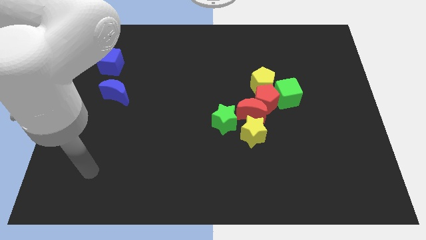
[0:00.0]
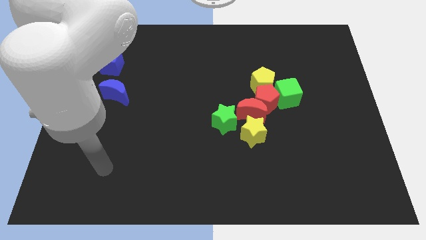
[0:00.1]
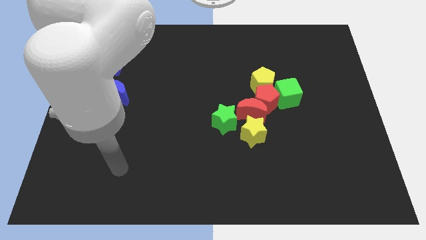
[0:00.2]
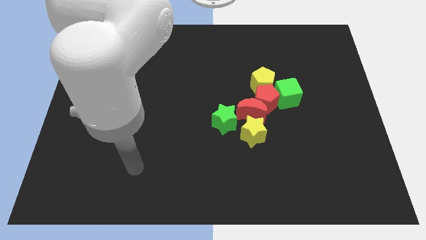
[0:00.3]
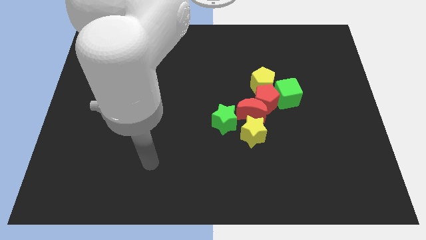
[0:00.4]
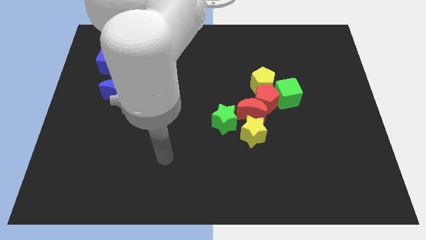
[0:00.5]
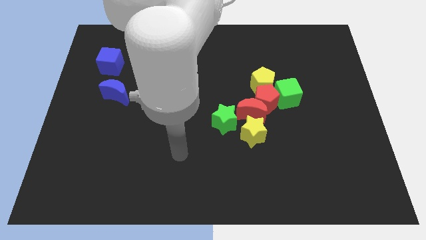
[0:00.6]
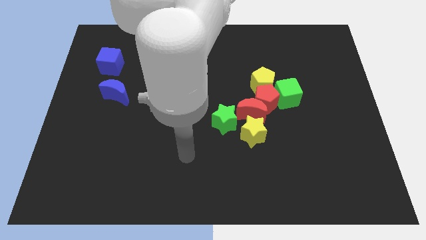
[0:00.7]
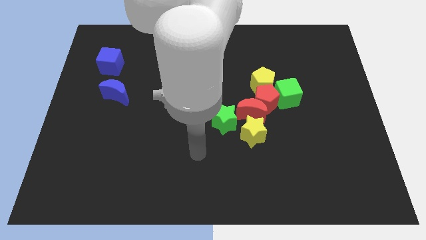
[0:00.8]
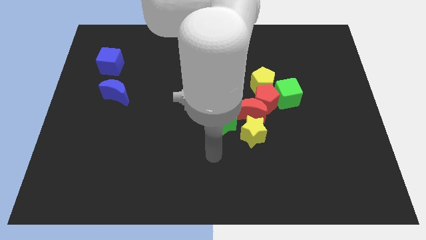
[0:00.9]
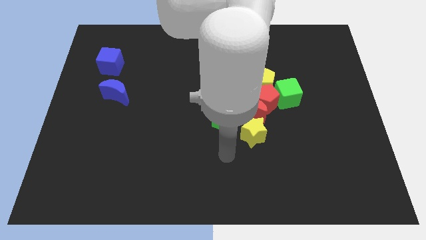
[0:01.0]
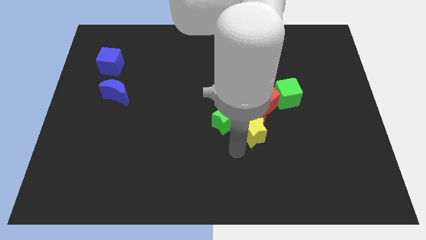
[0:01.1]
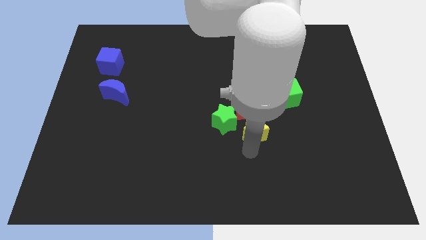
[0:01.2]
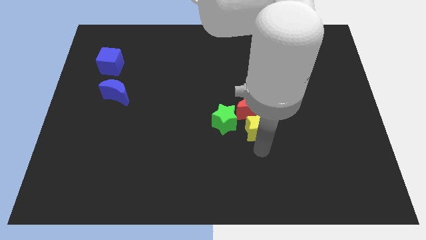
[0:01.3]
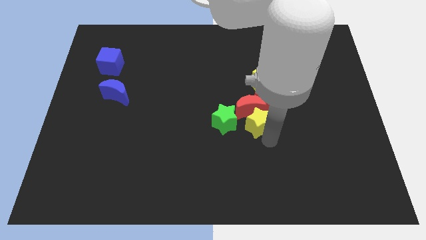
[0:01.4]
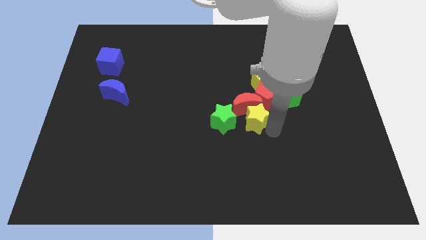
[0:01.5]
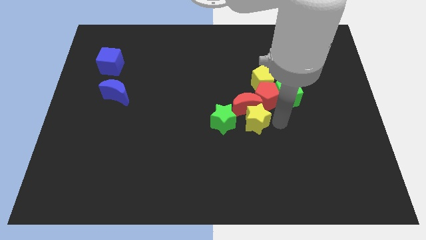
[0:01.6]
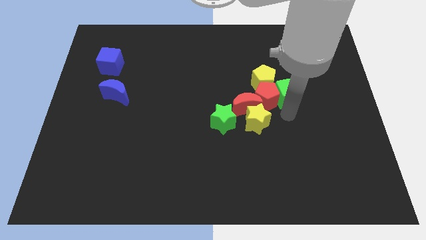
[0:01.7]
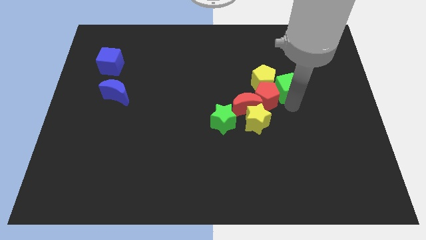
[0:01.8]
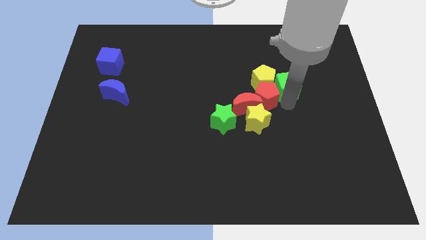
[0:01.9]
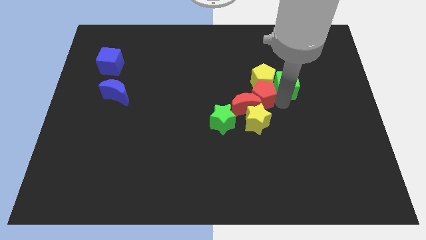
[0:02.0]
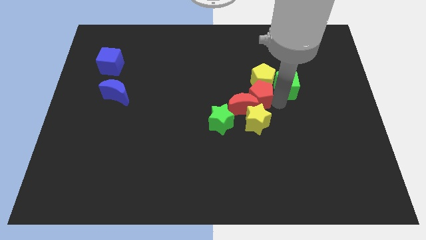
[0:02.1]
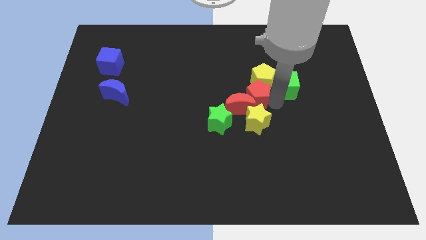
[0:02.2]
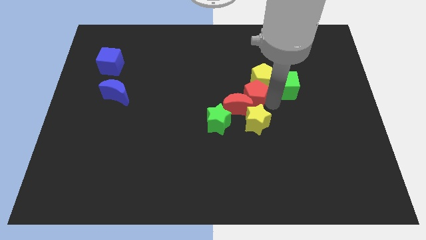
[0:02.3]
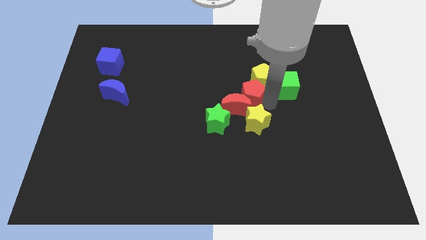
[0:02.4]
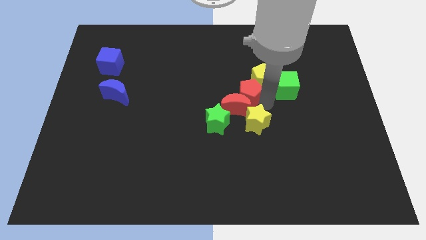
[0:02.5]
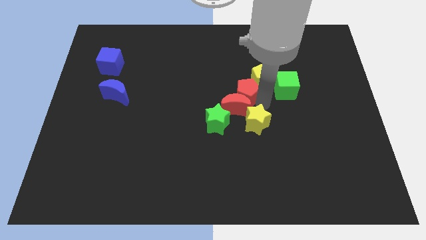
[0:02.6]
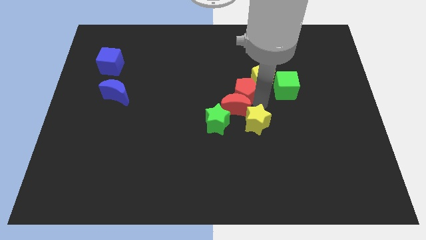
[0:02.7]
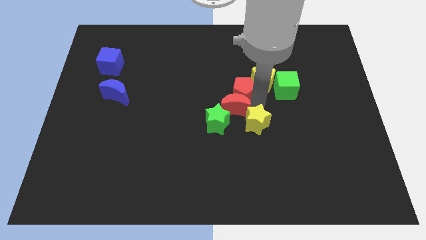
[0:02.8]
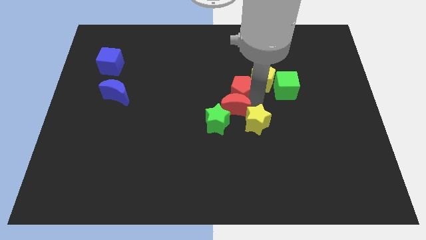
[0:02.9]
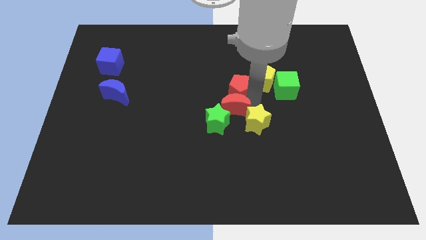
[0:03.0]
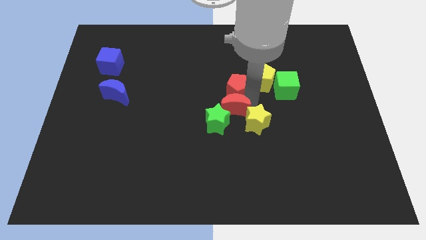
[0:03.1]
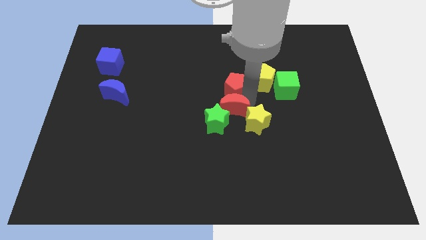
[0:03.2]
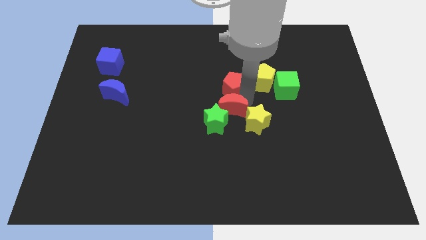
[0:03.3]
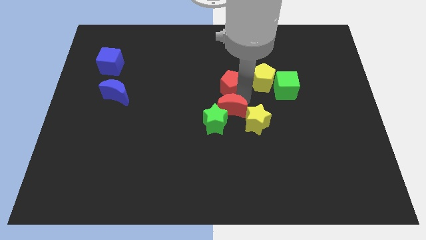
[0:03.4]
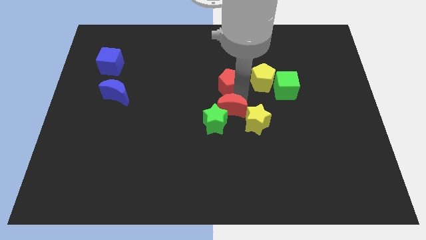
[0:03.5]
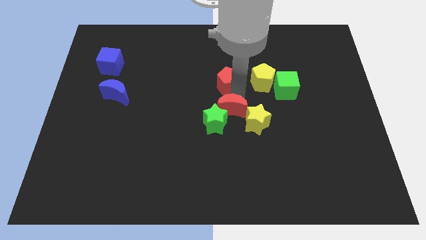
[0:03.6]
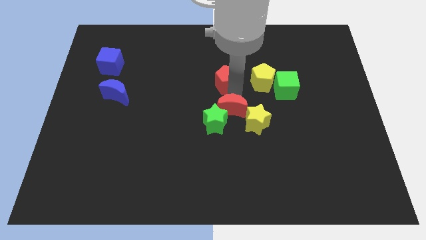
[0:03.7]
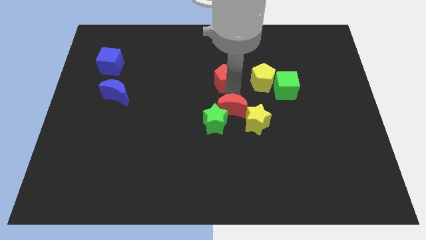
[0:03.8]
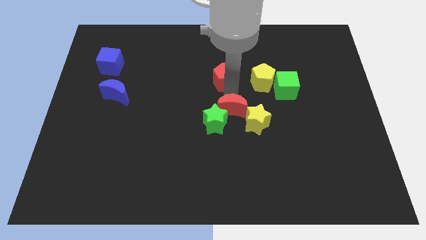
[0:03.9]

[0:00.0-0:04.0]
move the red pentagon away from the group

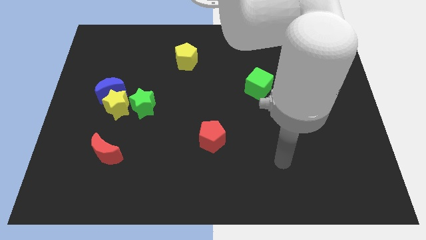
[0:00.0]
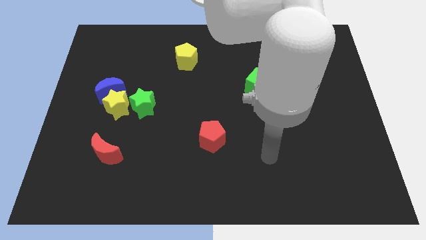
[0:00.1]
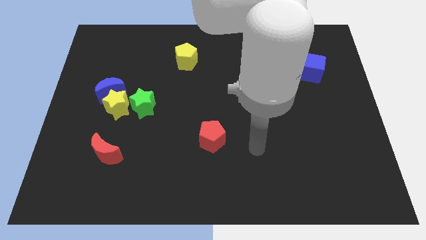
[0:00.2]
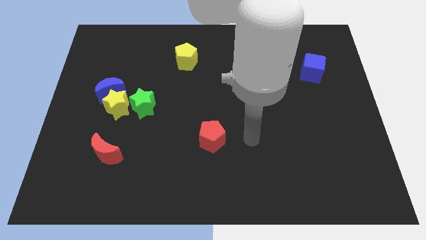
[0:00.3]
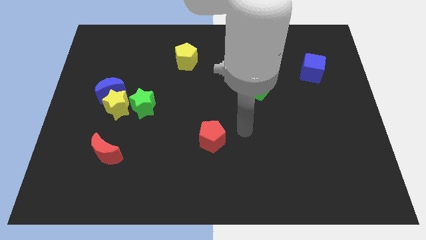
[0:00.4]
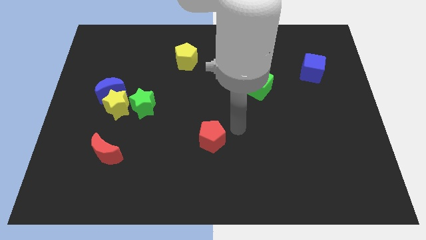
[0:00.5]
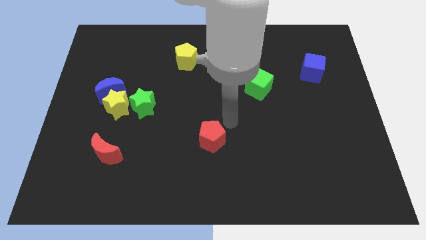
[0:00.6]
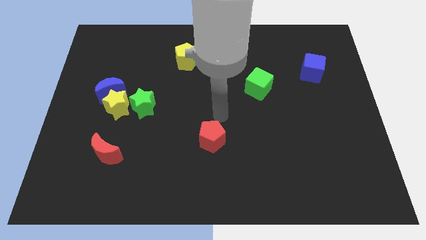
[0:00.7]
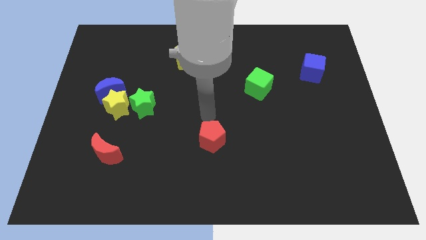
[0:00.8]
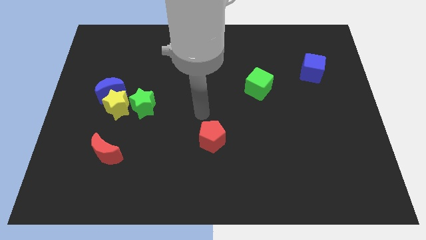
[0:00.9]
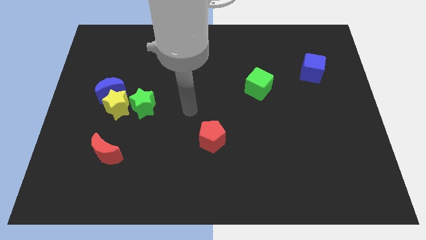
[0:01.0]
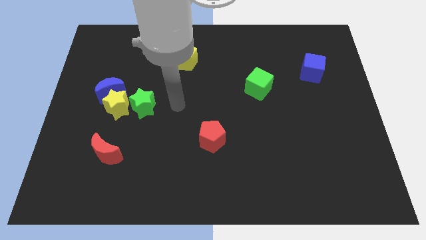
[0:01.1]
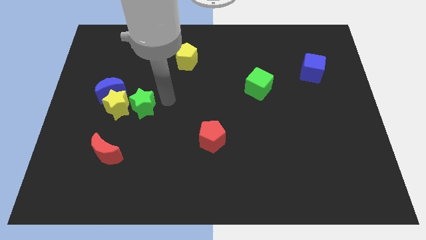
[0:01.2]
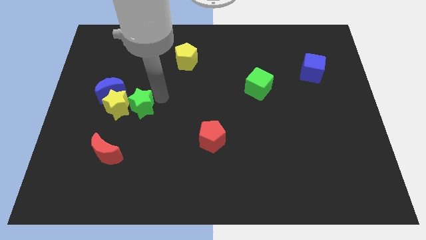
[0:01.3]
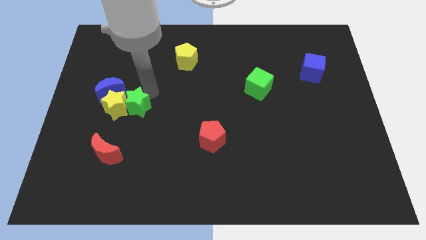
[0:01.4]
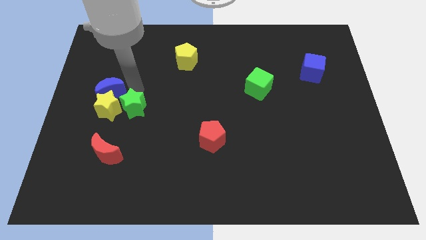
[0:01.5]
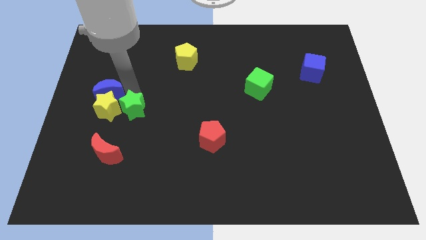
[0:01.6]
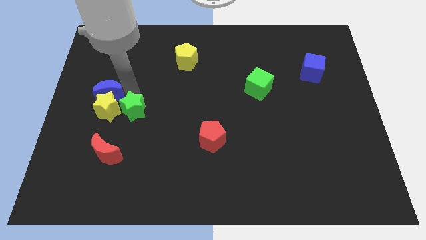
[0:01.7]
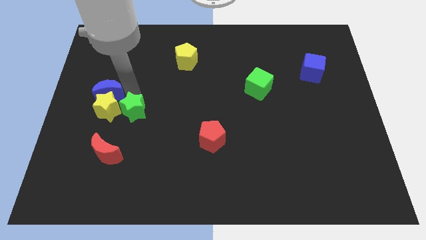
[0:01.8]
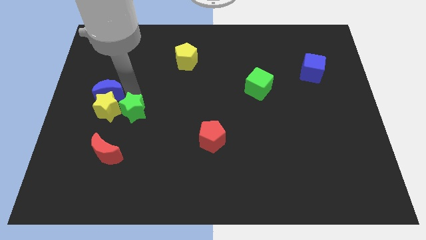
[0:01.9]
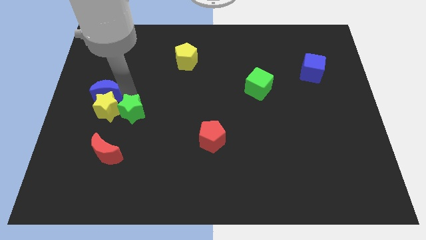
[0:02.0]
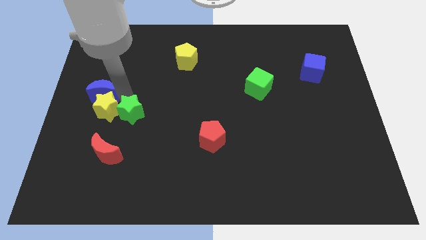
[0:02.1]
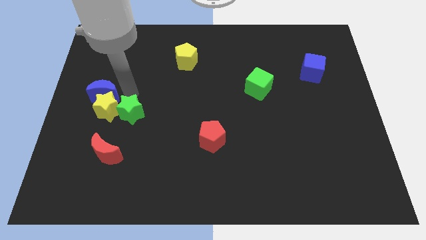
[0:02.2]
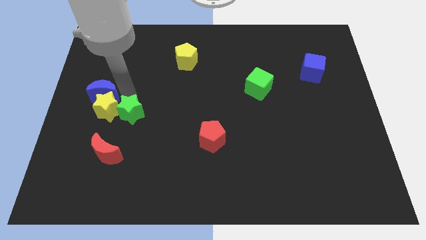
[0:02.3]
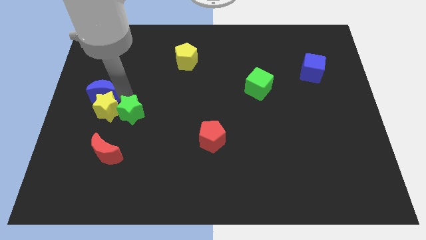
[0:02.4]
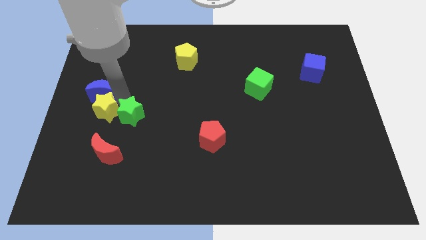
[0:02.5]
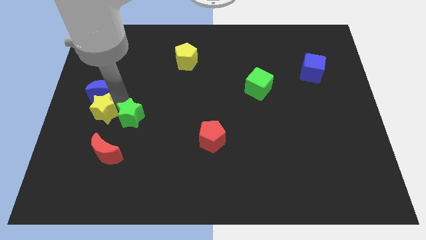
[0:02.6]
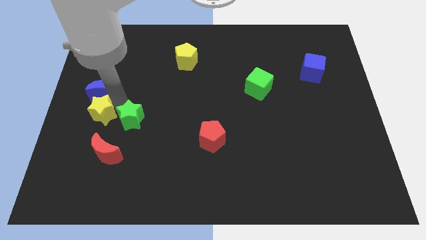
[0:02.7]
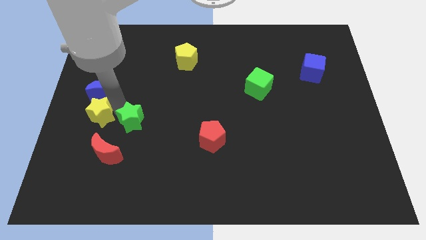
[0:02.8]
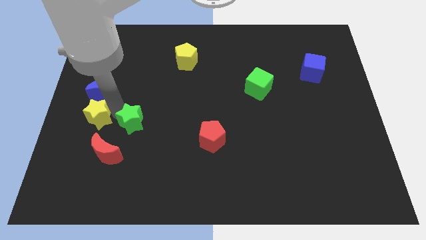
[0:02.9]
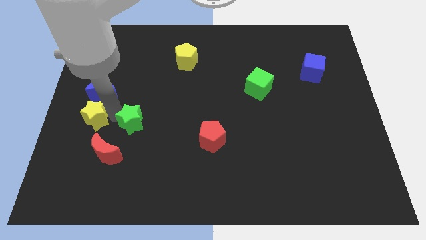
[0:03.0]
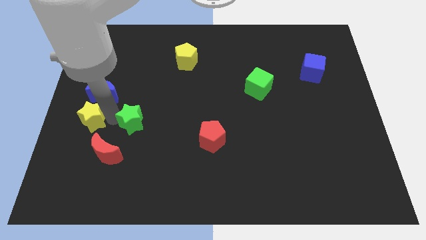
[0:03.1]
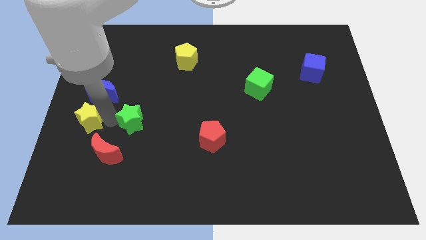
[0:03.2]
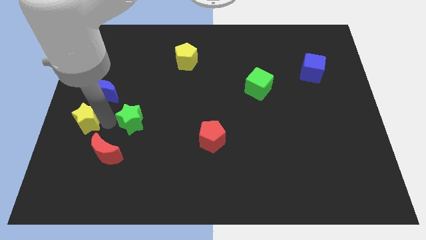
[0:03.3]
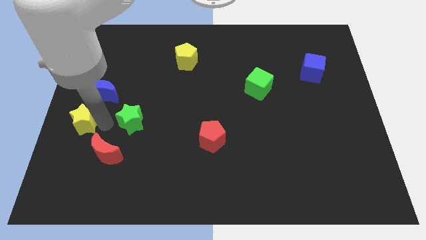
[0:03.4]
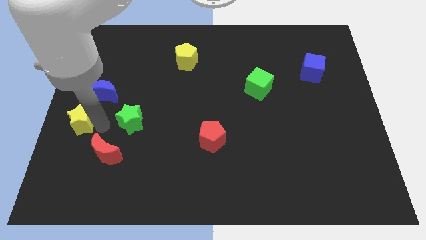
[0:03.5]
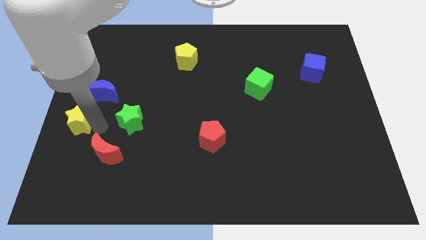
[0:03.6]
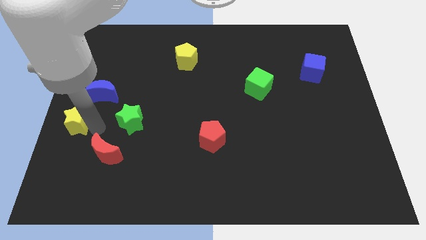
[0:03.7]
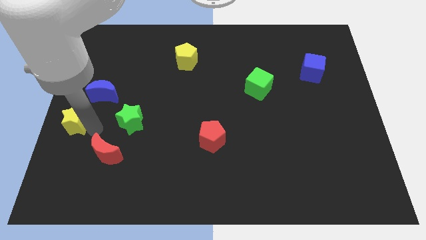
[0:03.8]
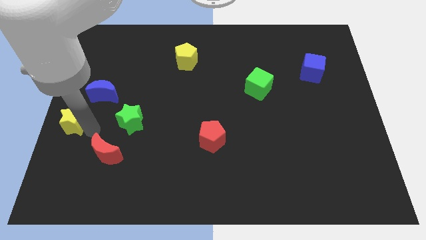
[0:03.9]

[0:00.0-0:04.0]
separate the yellow star from the blue moon and green star

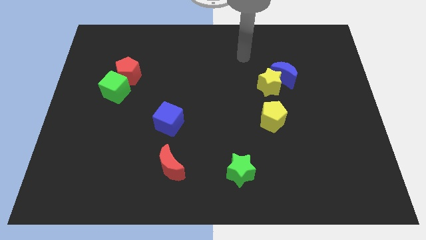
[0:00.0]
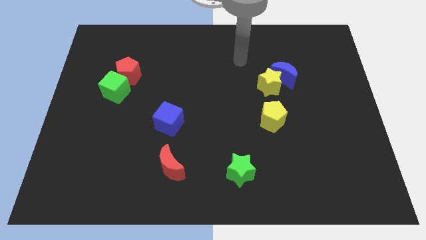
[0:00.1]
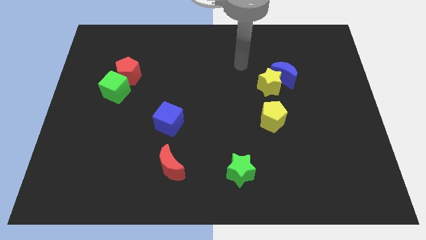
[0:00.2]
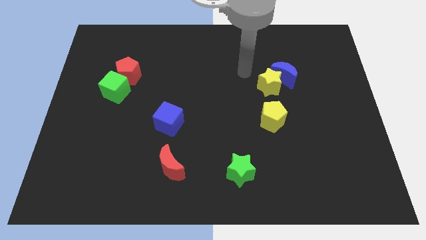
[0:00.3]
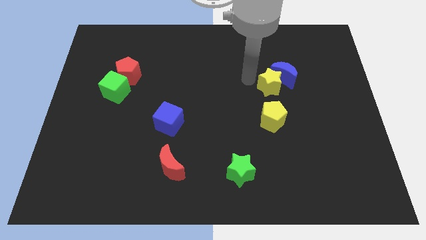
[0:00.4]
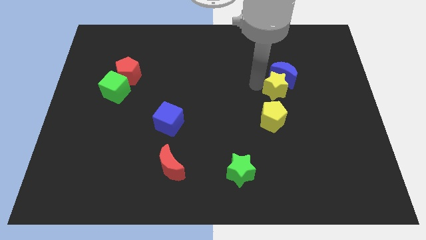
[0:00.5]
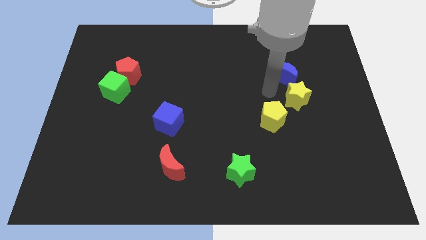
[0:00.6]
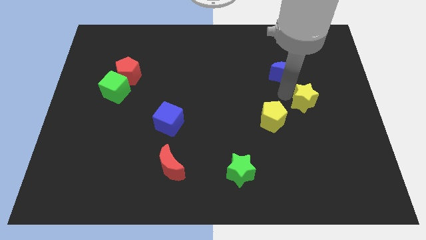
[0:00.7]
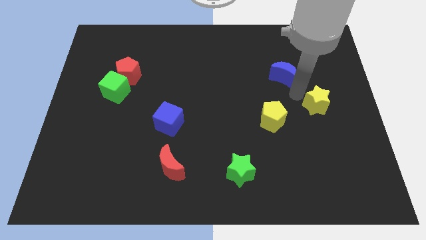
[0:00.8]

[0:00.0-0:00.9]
move the blue moon away from the yellow star

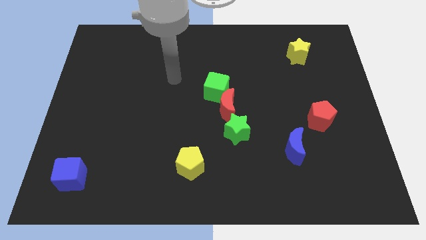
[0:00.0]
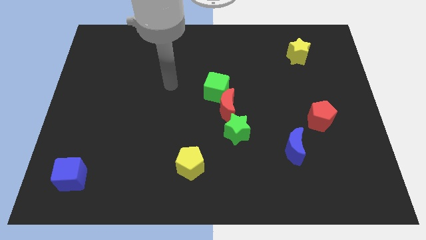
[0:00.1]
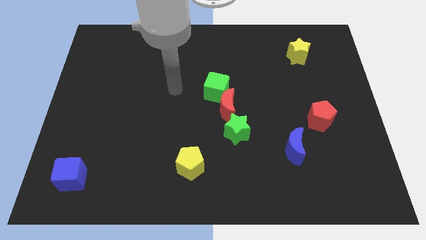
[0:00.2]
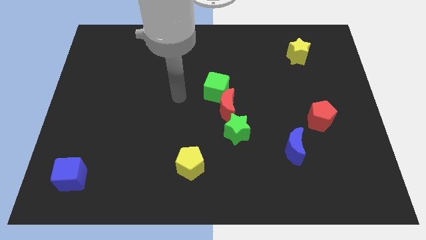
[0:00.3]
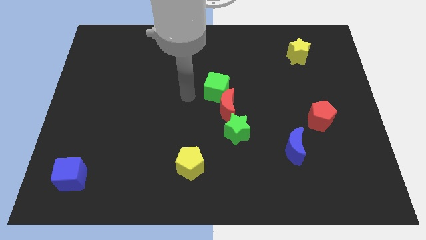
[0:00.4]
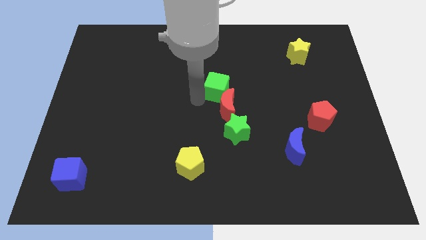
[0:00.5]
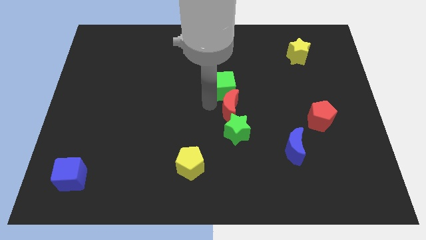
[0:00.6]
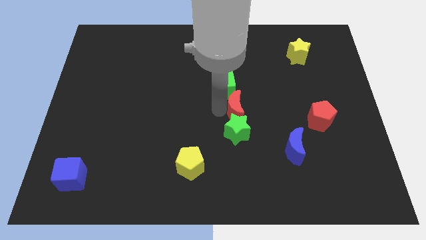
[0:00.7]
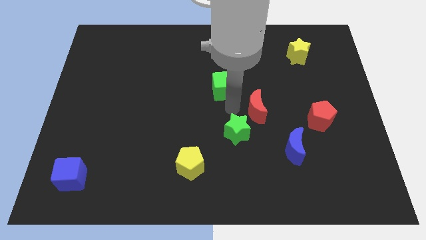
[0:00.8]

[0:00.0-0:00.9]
separate the green cube from the red moon
